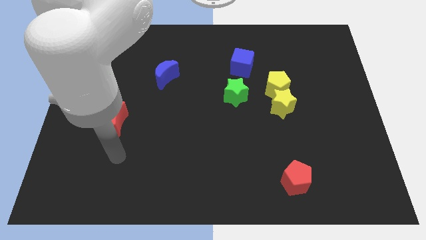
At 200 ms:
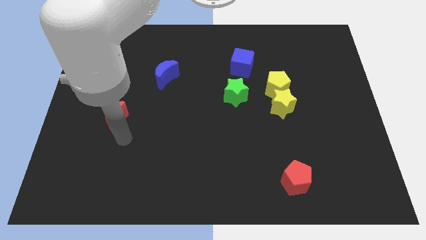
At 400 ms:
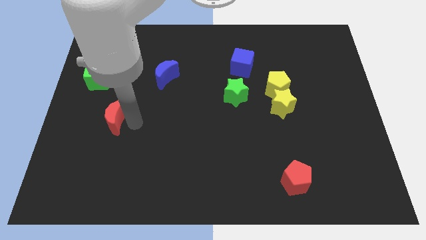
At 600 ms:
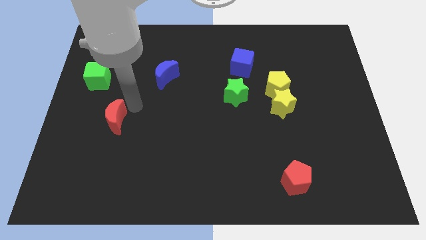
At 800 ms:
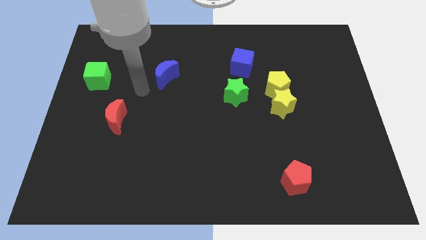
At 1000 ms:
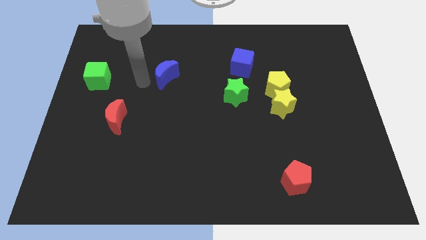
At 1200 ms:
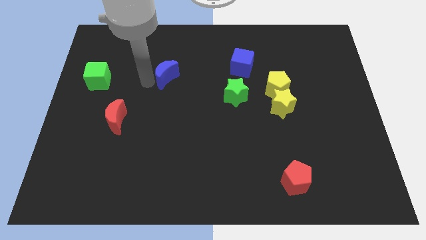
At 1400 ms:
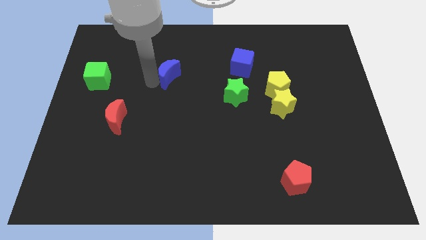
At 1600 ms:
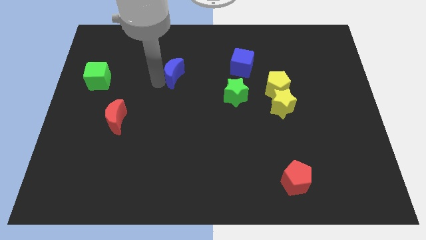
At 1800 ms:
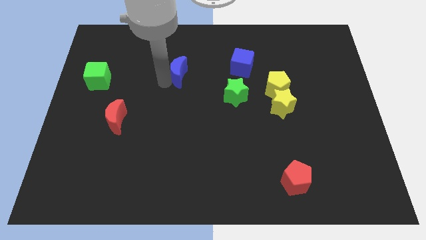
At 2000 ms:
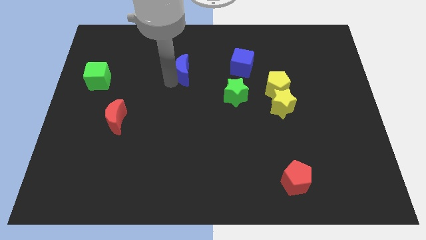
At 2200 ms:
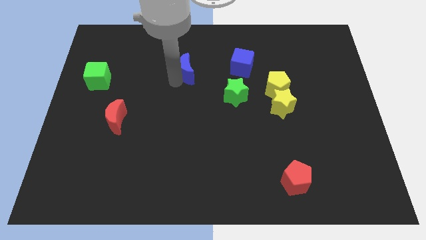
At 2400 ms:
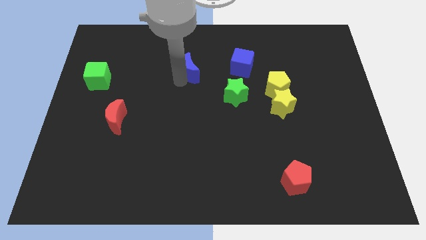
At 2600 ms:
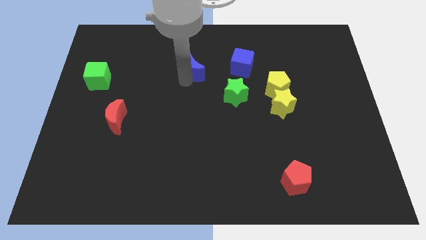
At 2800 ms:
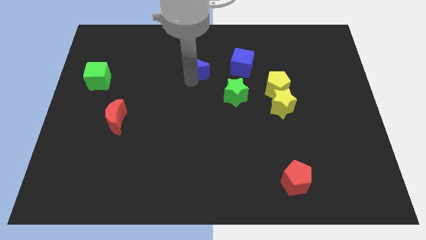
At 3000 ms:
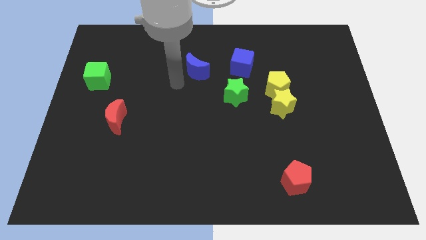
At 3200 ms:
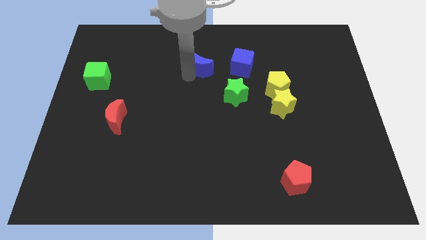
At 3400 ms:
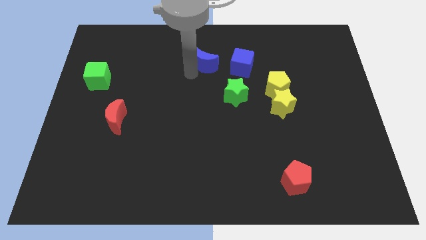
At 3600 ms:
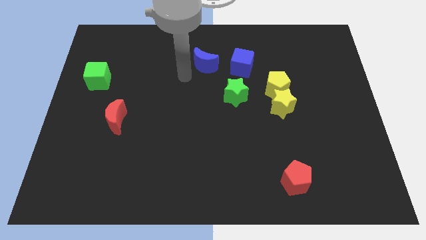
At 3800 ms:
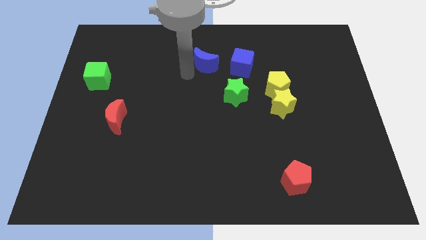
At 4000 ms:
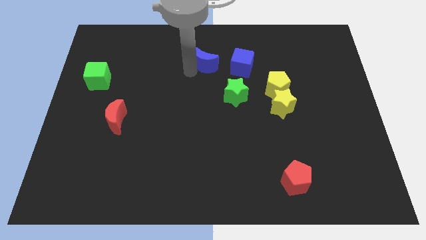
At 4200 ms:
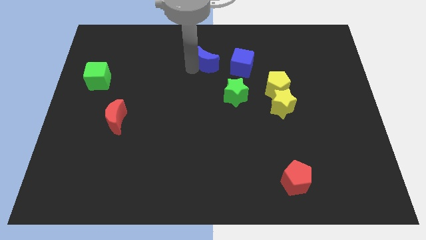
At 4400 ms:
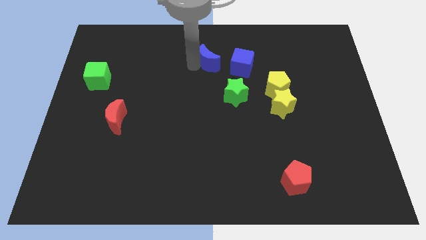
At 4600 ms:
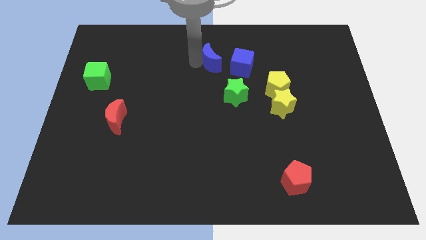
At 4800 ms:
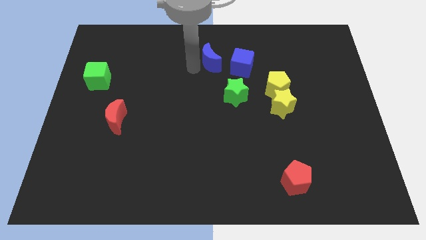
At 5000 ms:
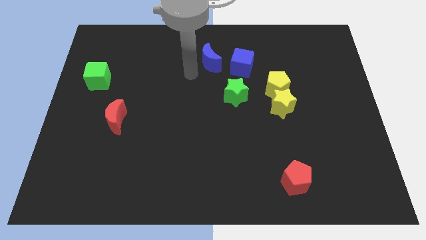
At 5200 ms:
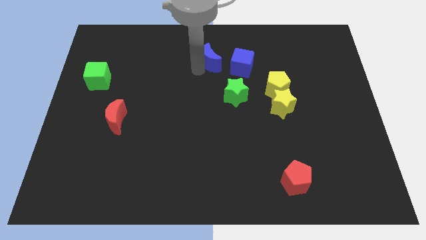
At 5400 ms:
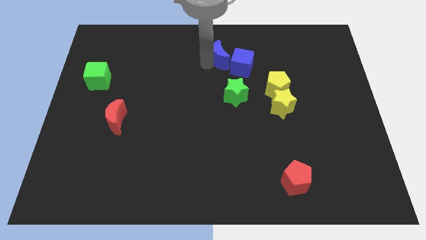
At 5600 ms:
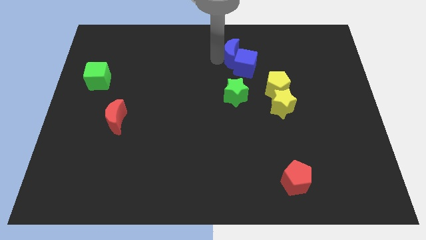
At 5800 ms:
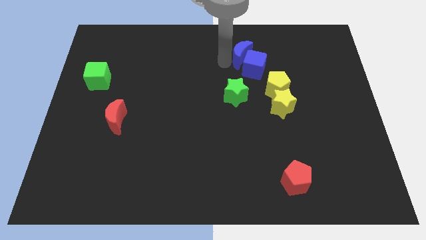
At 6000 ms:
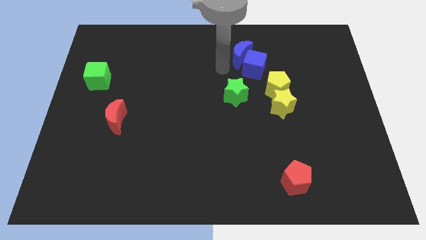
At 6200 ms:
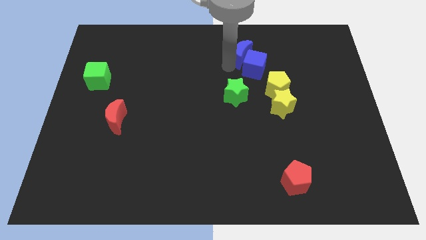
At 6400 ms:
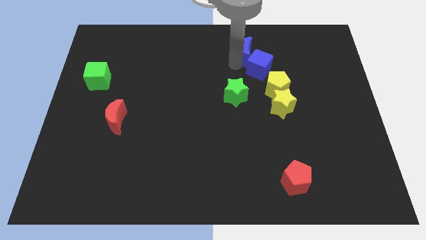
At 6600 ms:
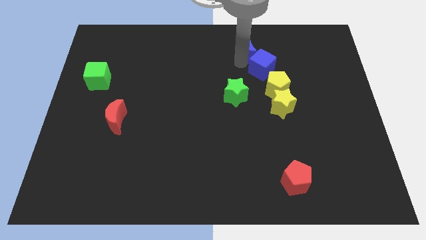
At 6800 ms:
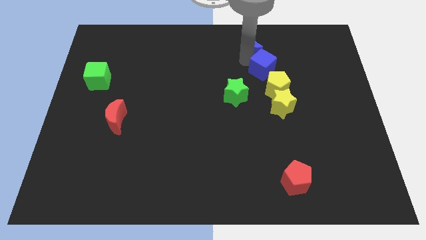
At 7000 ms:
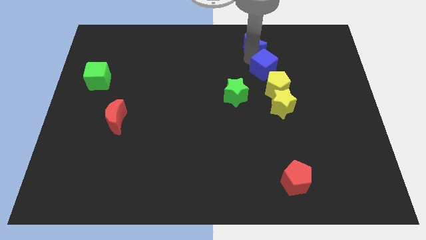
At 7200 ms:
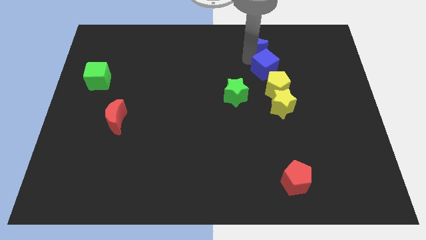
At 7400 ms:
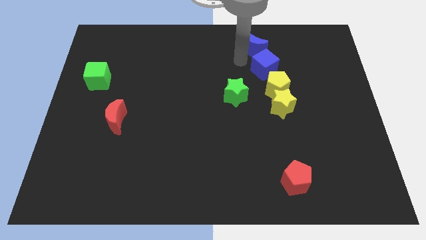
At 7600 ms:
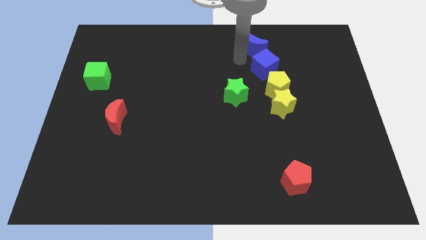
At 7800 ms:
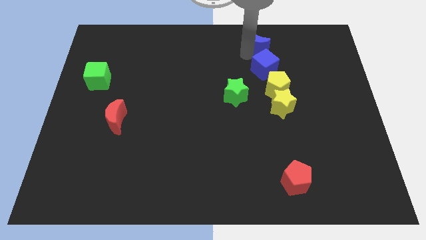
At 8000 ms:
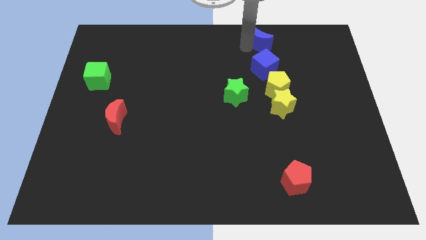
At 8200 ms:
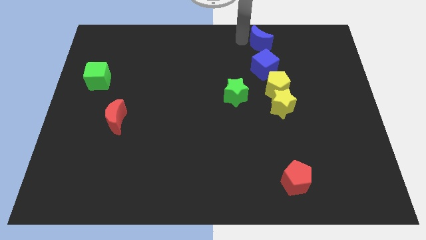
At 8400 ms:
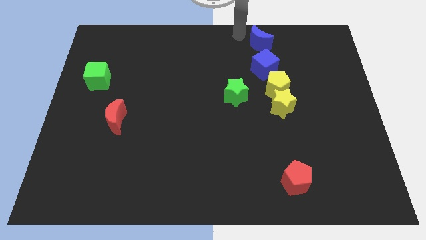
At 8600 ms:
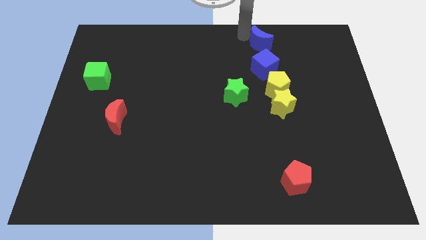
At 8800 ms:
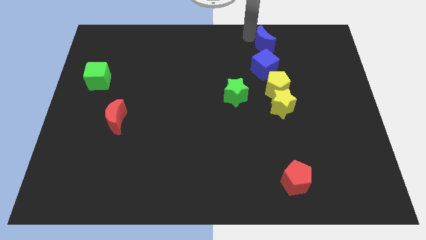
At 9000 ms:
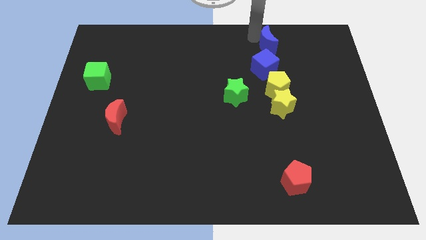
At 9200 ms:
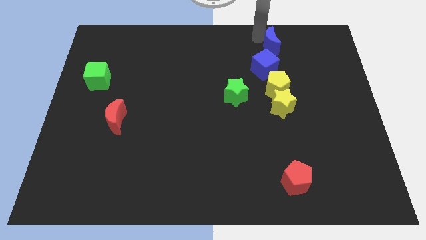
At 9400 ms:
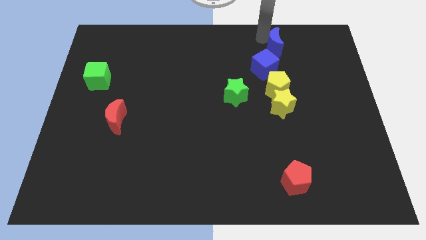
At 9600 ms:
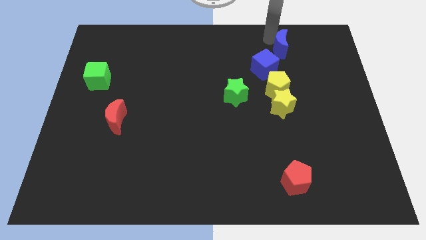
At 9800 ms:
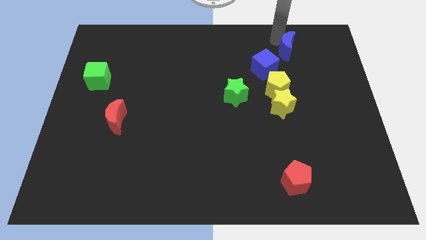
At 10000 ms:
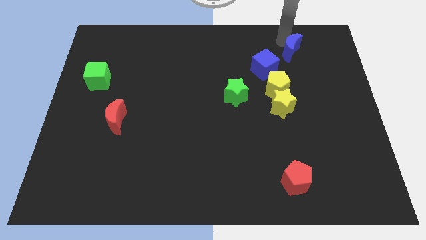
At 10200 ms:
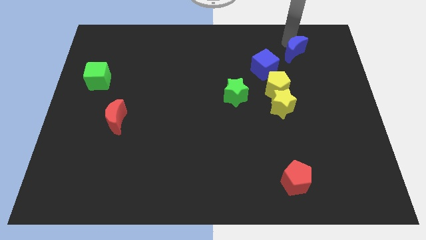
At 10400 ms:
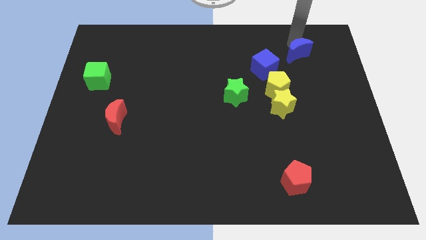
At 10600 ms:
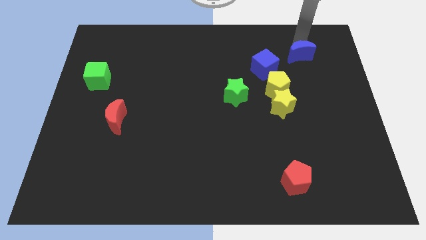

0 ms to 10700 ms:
move the blue moon to the right side of the blue cube

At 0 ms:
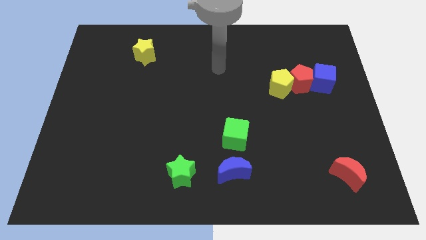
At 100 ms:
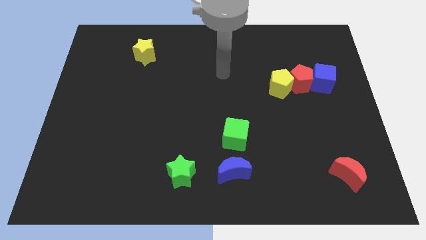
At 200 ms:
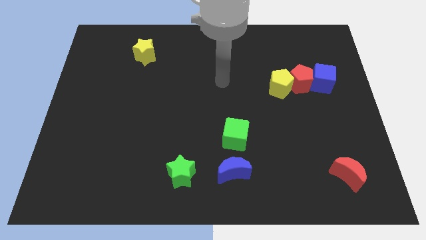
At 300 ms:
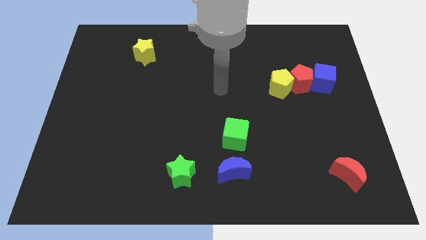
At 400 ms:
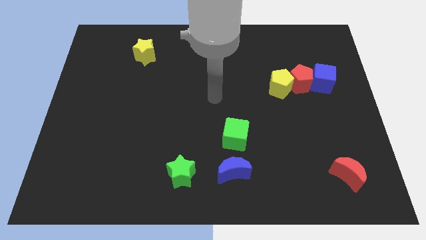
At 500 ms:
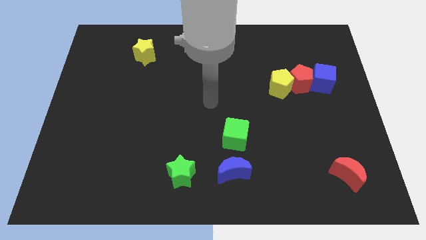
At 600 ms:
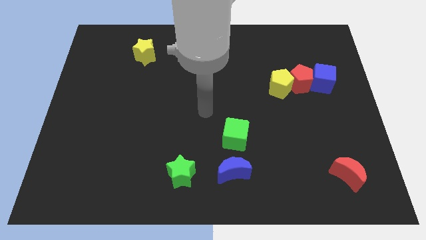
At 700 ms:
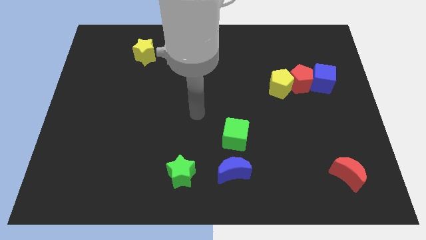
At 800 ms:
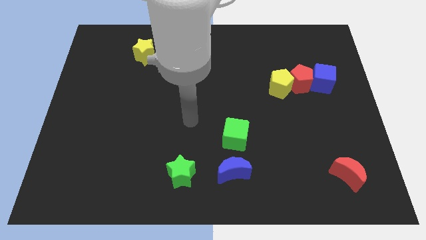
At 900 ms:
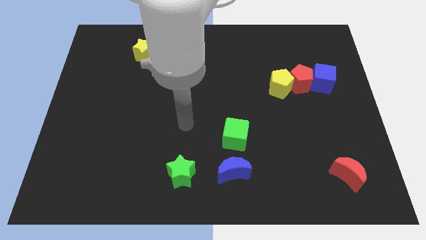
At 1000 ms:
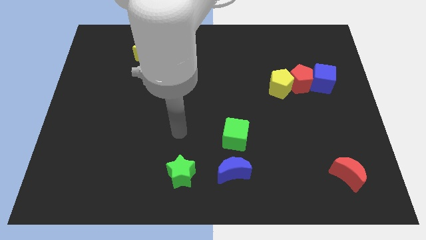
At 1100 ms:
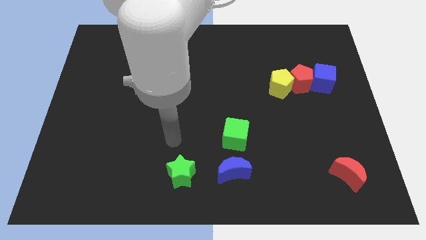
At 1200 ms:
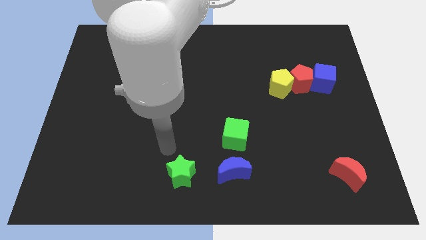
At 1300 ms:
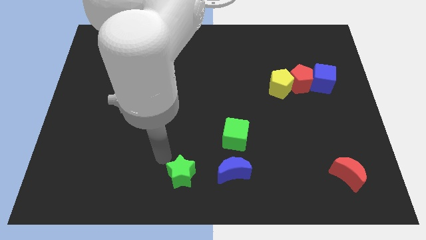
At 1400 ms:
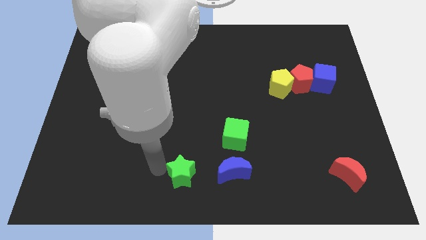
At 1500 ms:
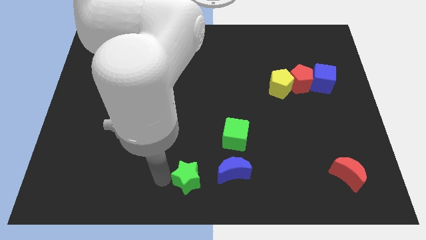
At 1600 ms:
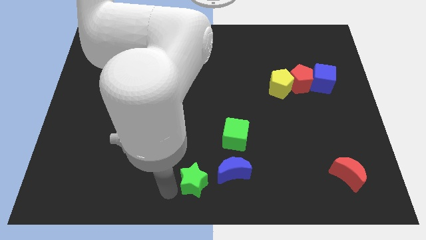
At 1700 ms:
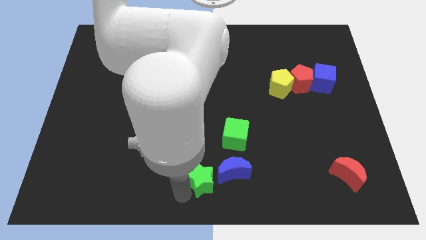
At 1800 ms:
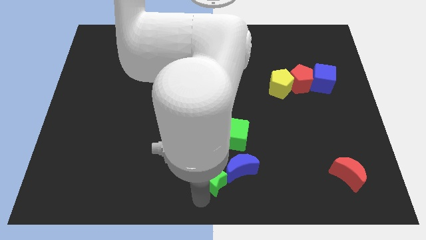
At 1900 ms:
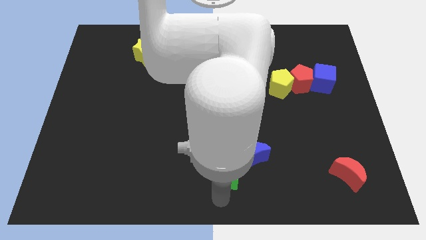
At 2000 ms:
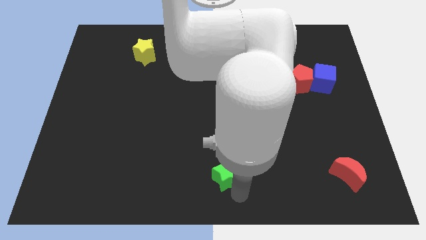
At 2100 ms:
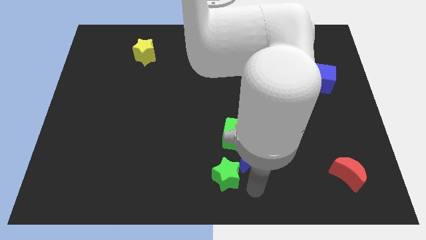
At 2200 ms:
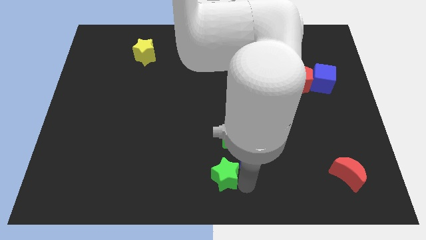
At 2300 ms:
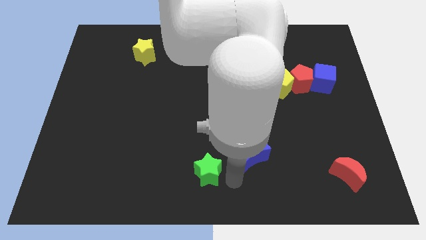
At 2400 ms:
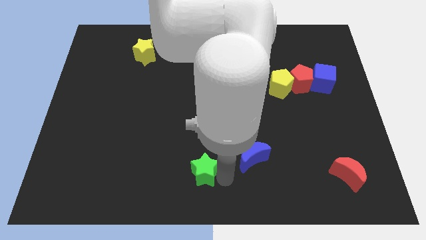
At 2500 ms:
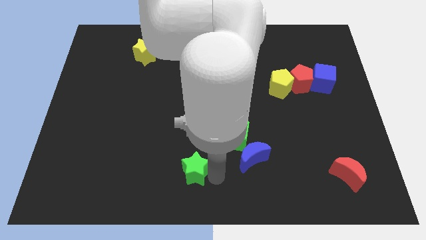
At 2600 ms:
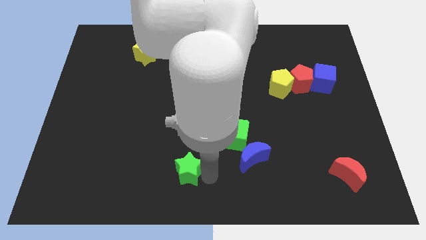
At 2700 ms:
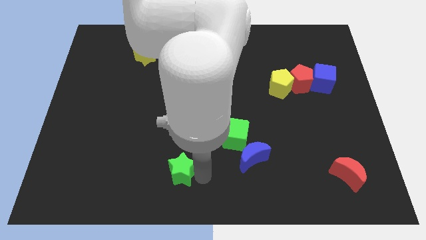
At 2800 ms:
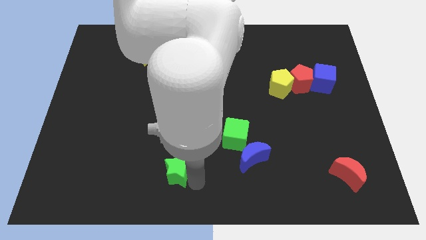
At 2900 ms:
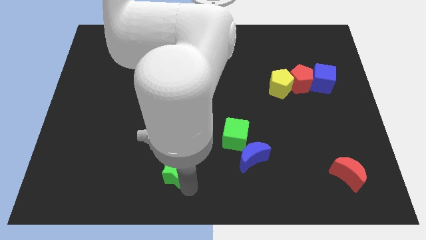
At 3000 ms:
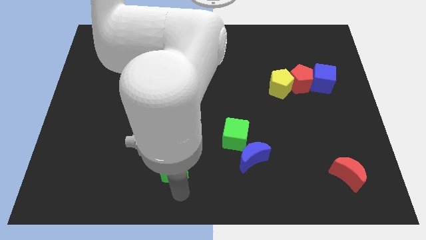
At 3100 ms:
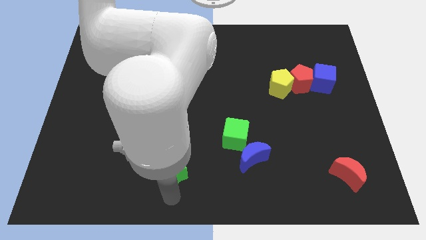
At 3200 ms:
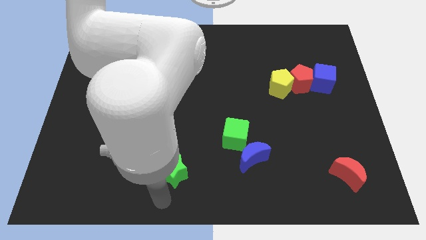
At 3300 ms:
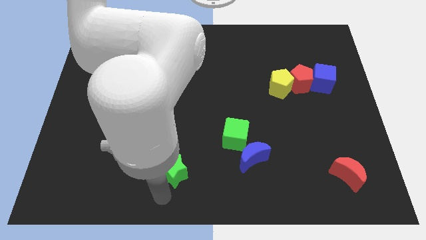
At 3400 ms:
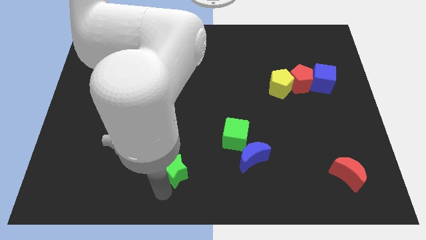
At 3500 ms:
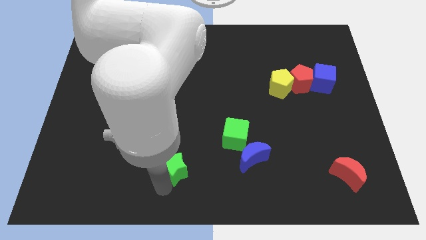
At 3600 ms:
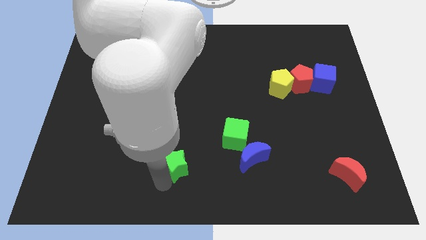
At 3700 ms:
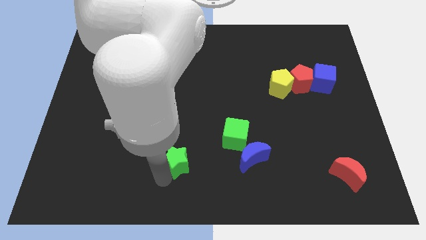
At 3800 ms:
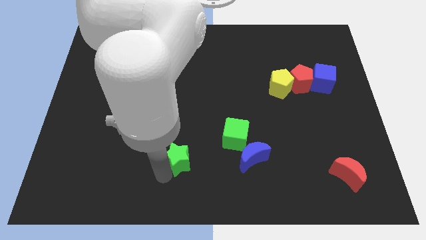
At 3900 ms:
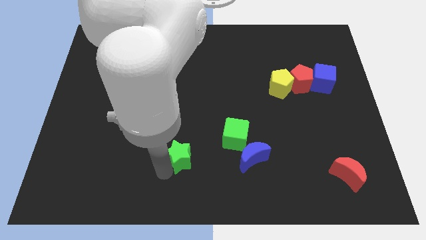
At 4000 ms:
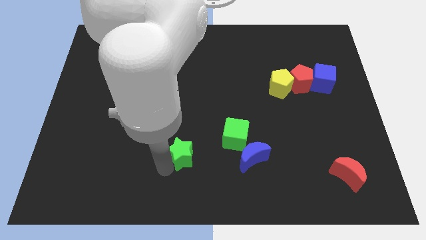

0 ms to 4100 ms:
put the green star to the left side of the green cube
